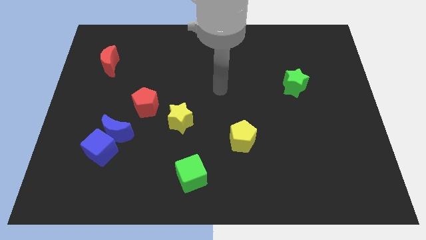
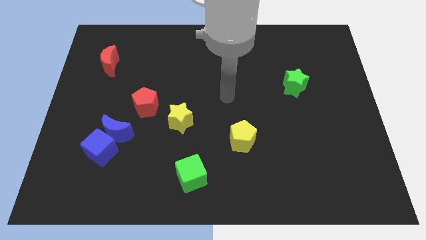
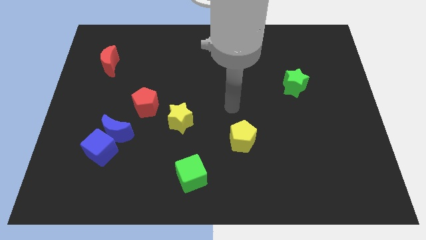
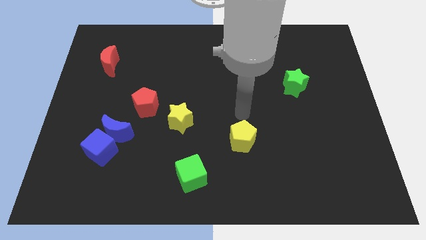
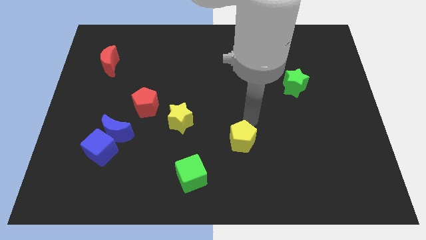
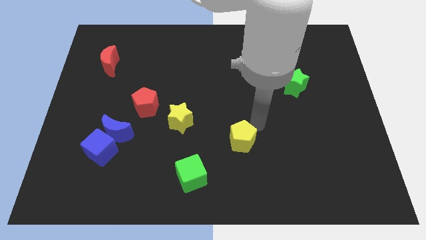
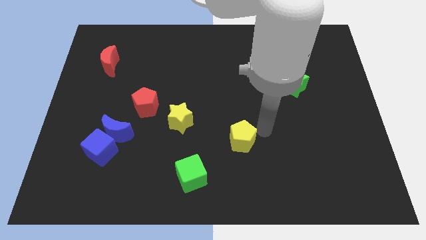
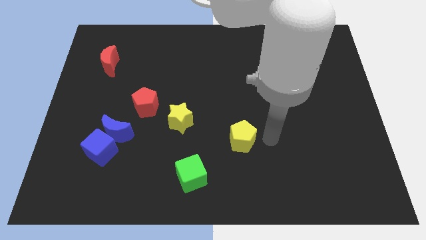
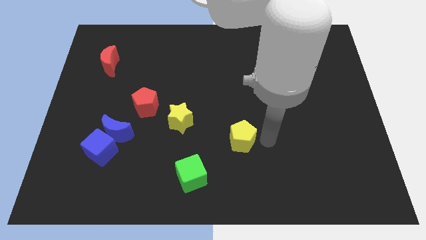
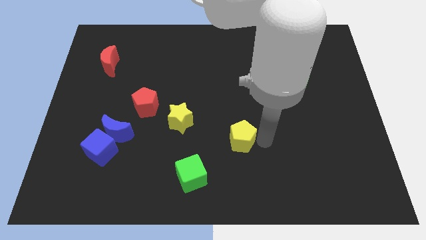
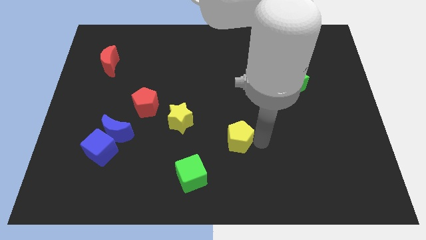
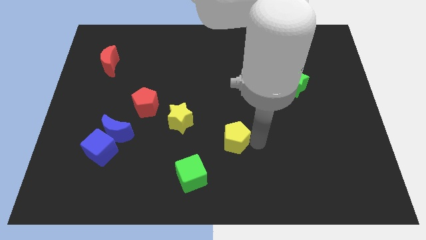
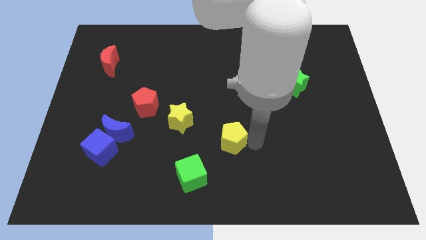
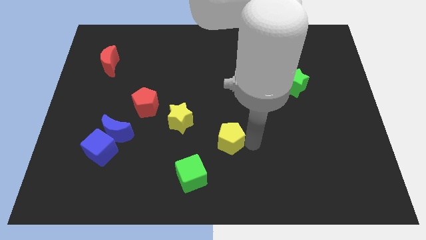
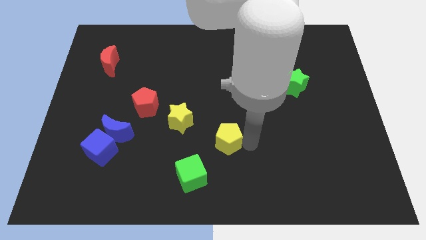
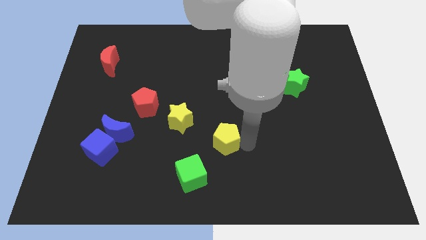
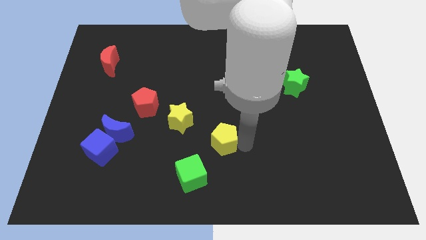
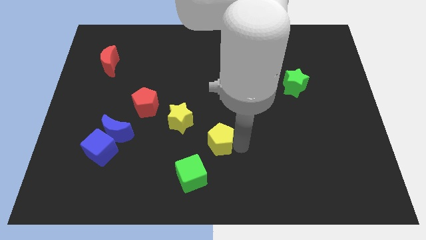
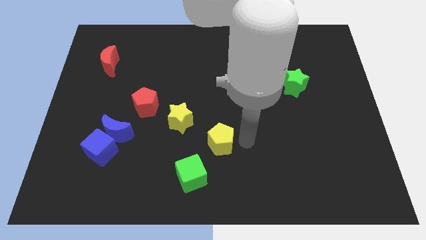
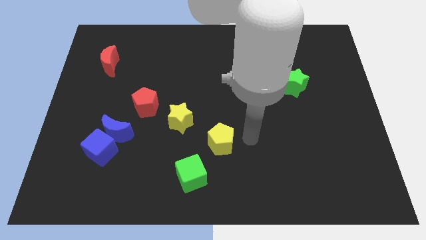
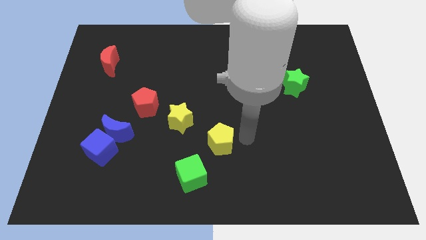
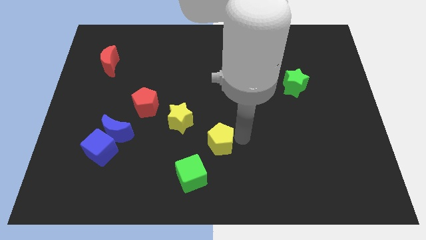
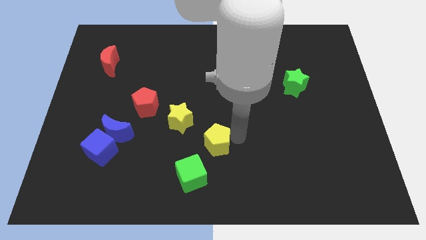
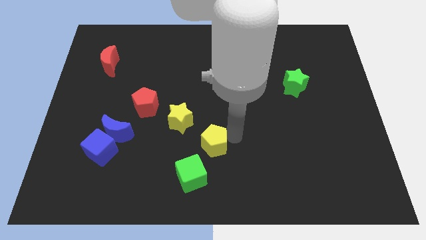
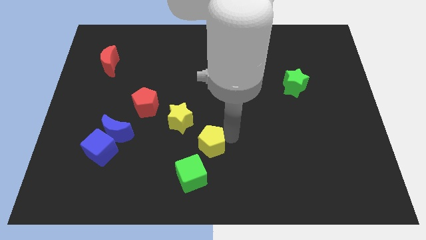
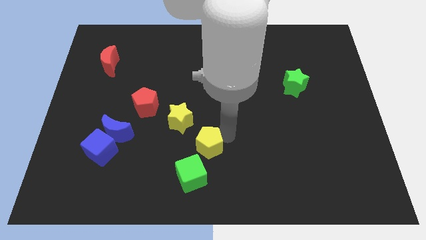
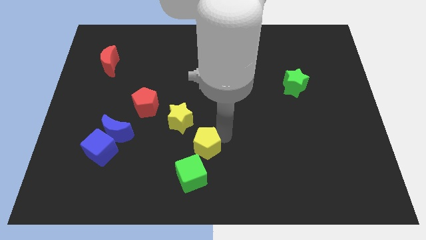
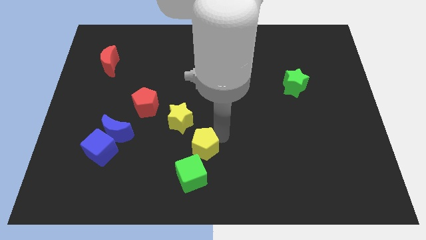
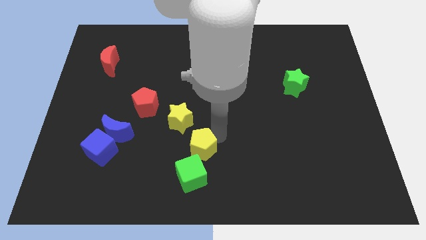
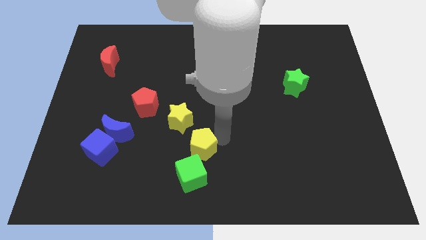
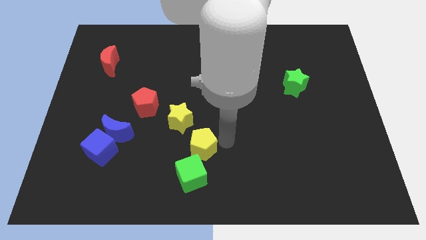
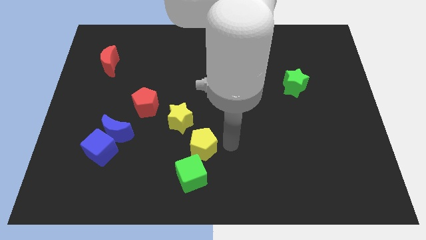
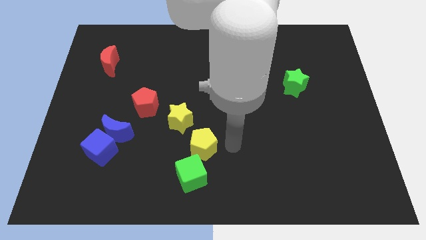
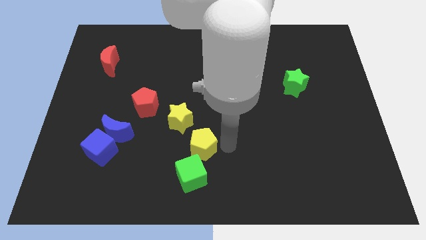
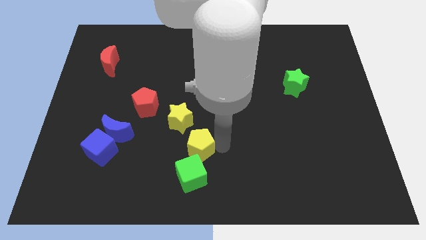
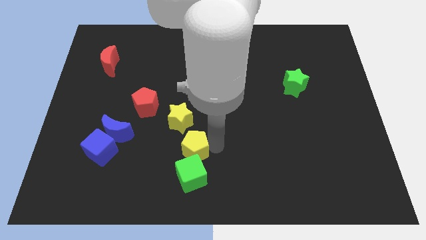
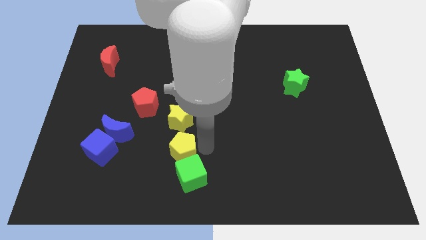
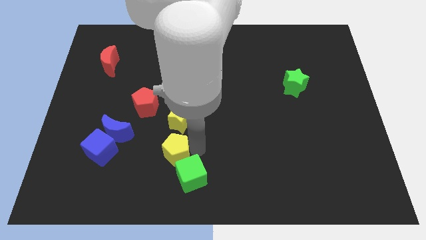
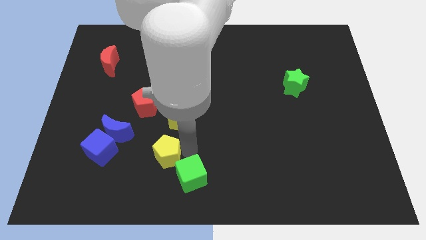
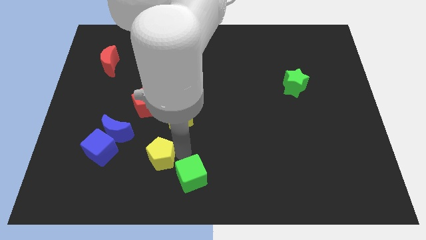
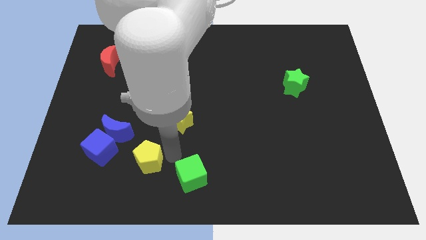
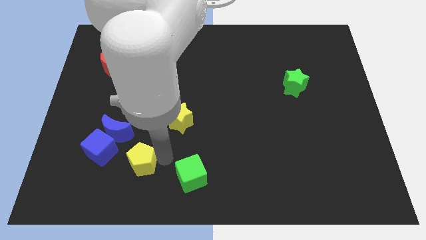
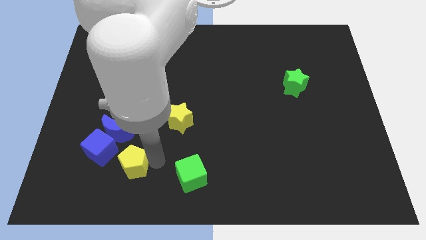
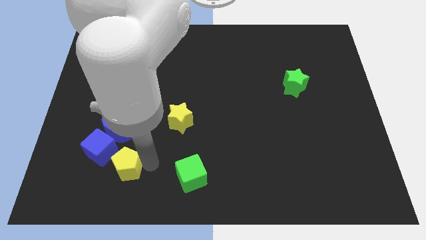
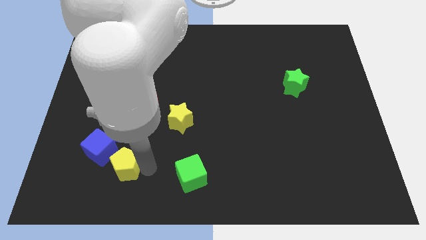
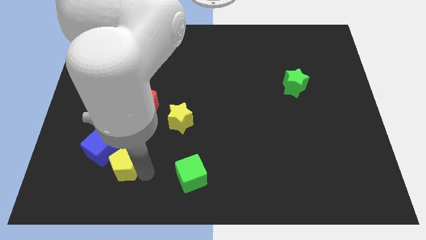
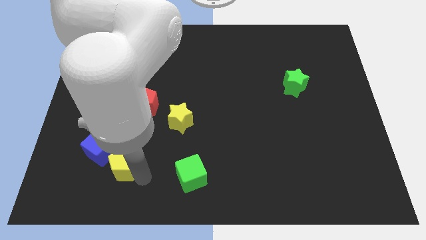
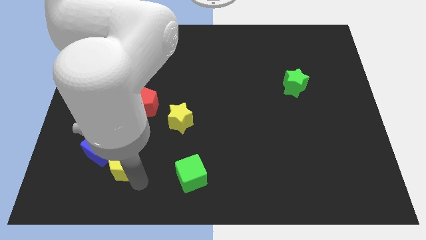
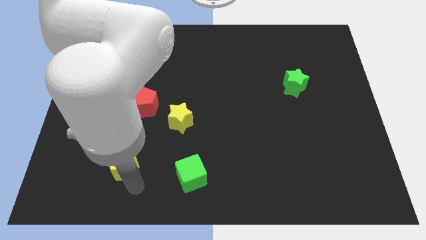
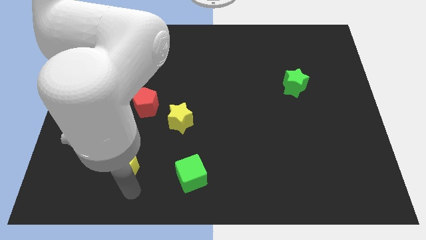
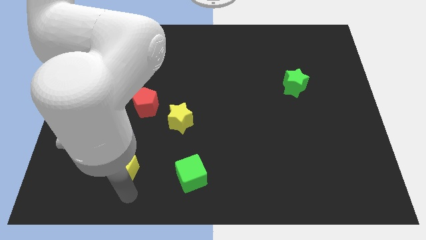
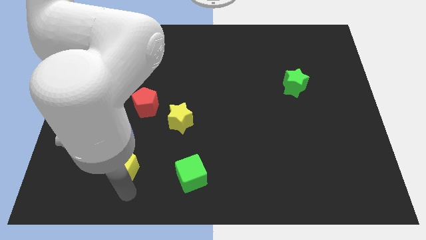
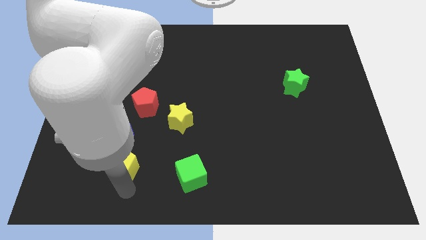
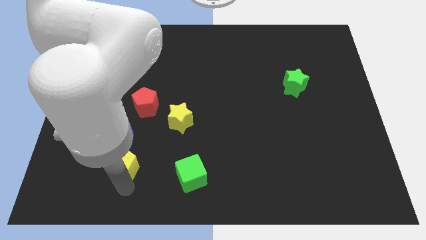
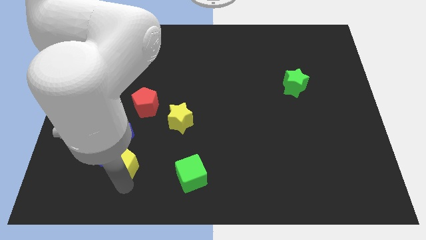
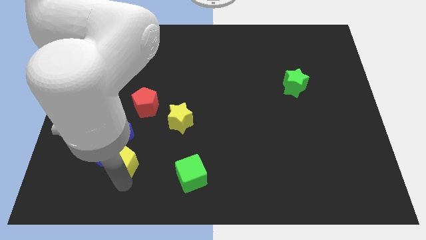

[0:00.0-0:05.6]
put the yellow pentagon to the blue cube

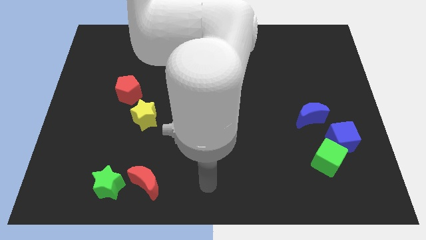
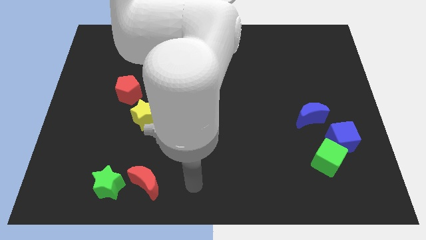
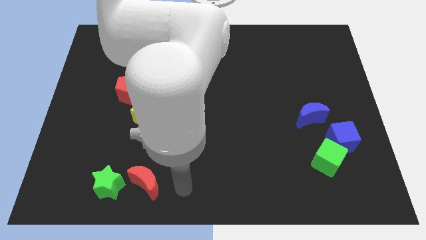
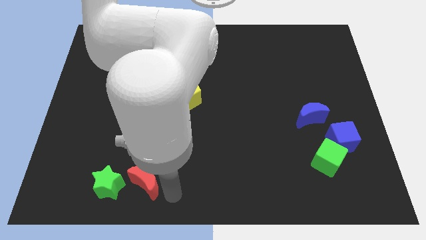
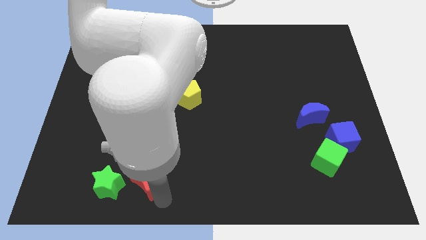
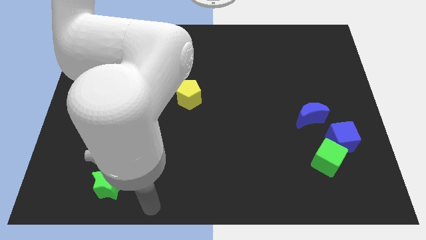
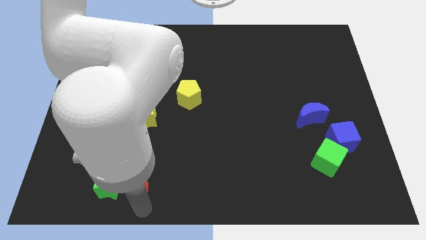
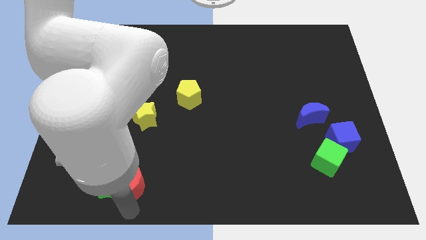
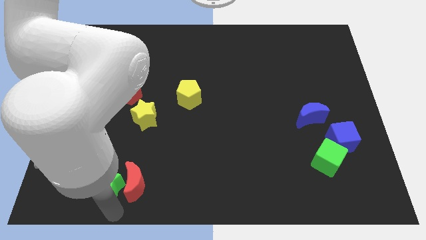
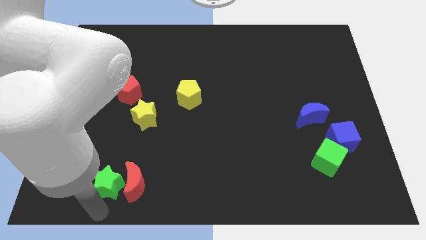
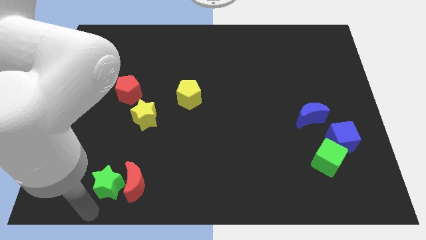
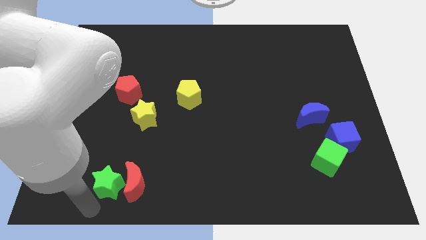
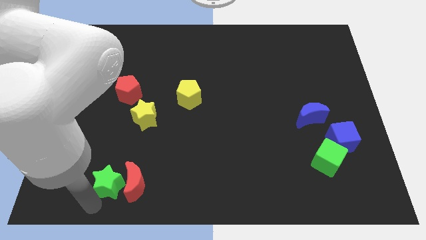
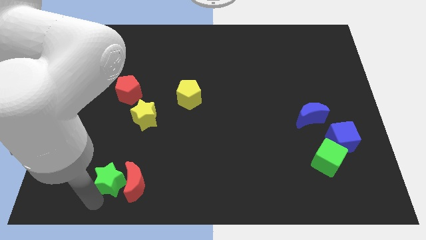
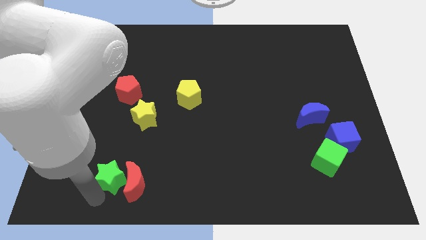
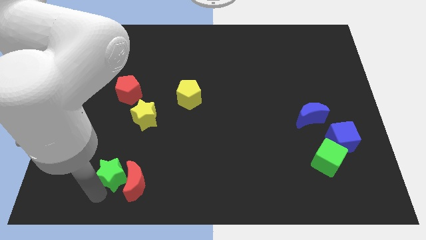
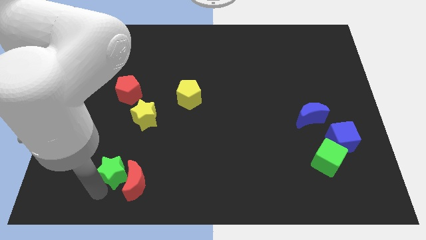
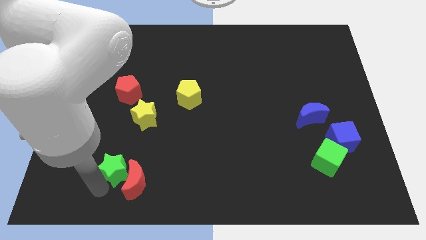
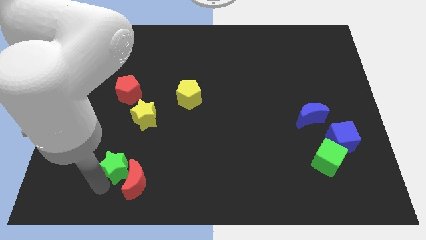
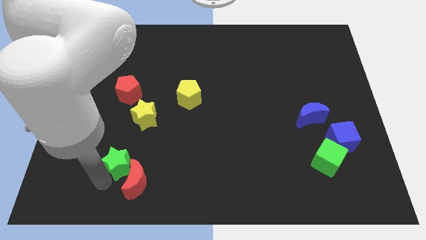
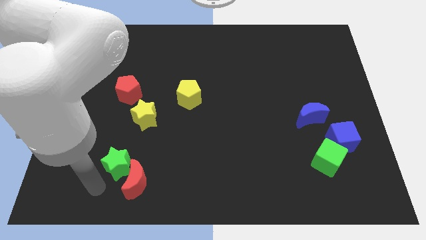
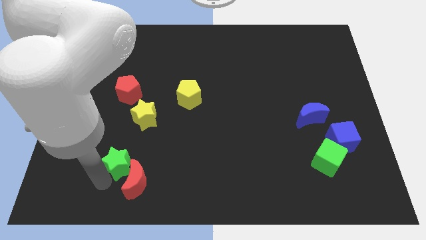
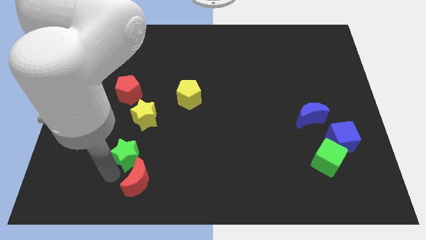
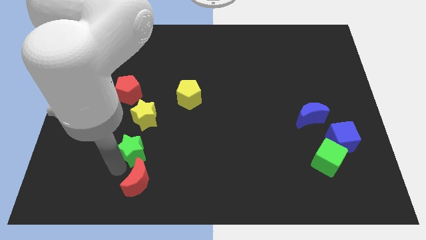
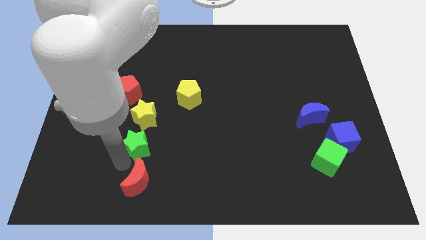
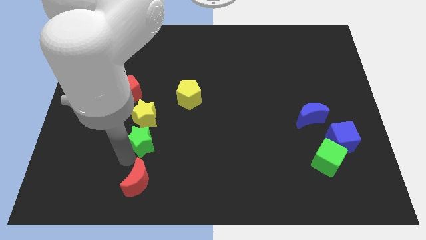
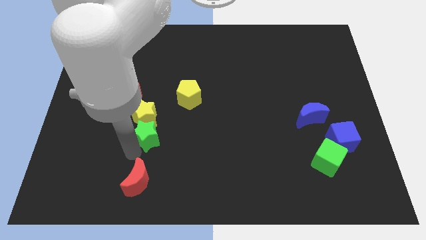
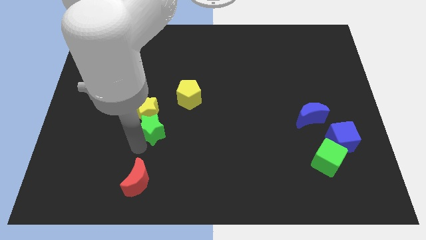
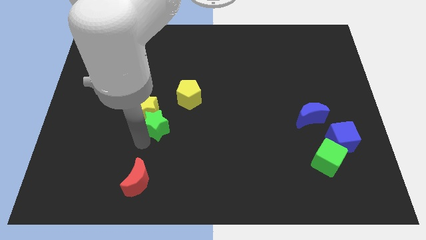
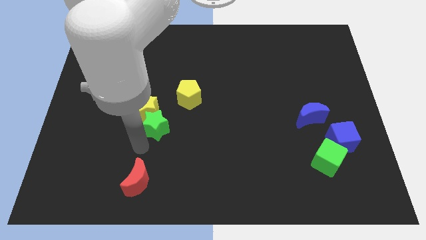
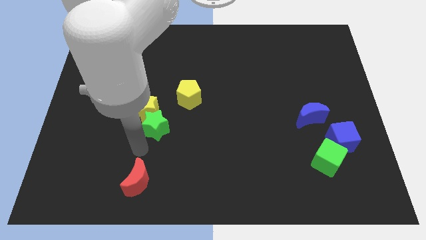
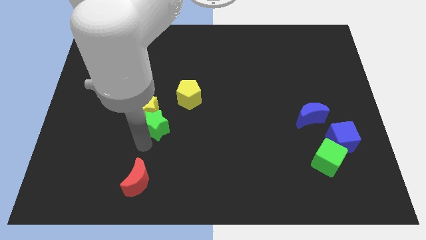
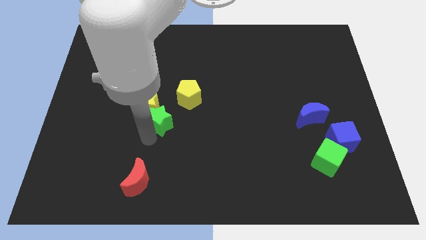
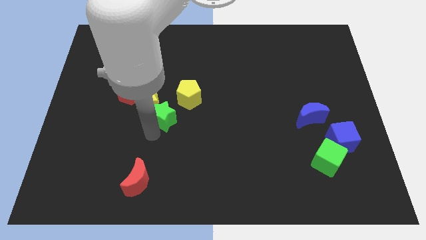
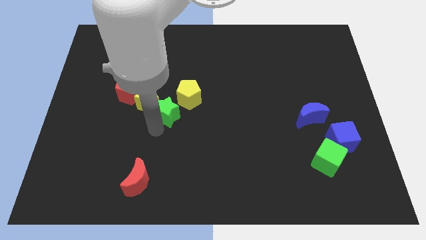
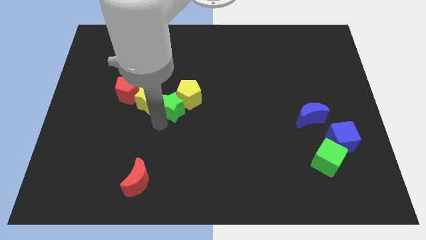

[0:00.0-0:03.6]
move the green star to the yellow pentagon
